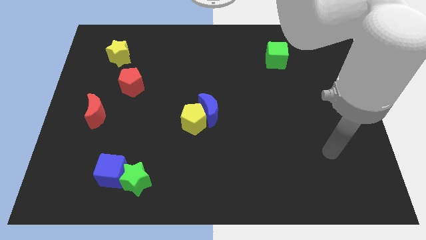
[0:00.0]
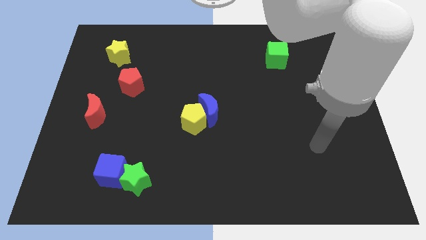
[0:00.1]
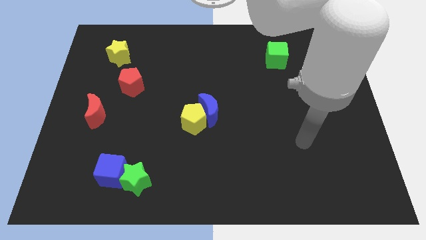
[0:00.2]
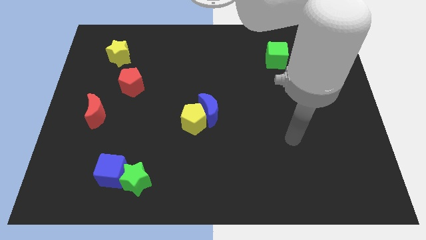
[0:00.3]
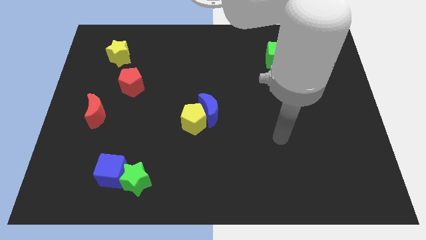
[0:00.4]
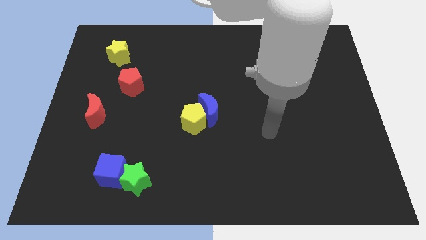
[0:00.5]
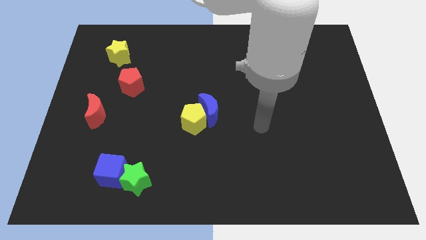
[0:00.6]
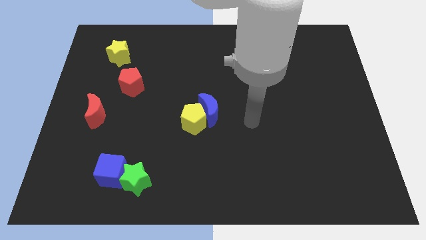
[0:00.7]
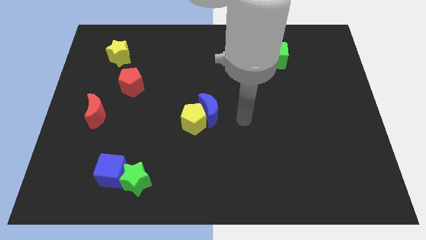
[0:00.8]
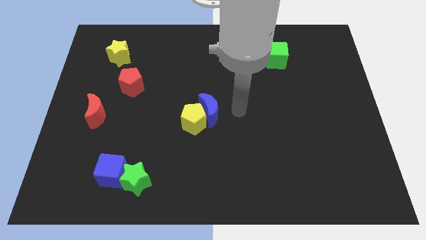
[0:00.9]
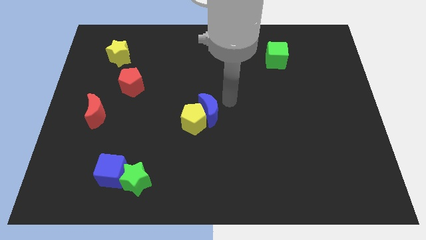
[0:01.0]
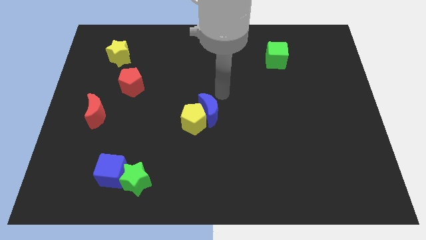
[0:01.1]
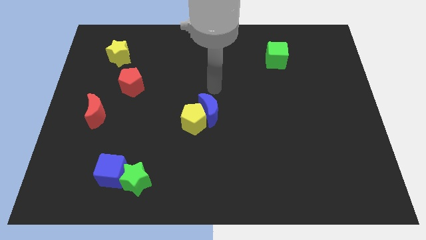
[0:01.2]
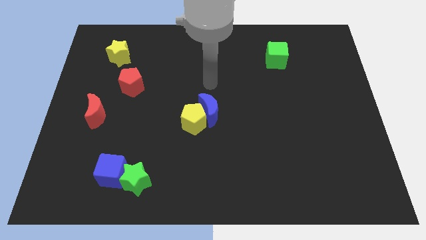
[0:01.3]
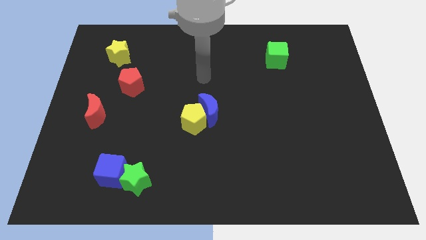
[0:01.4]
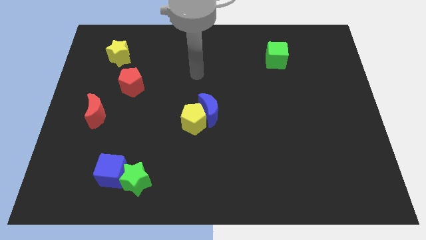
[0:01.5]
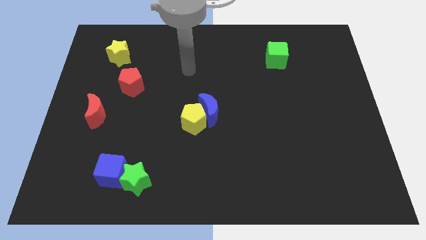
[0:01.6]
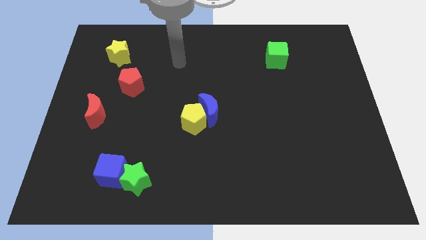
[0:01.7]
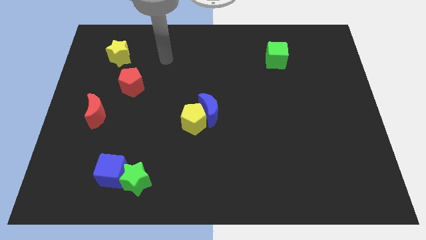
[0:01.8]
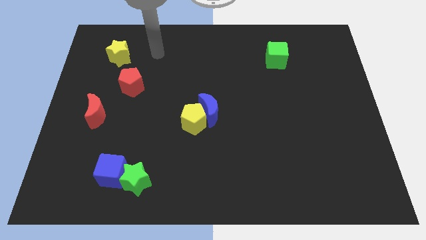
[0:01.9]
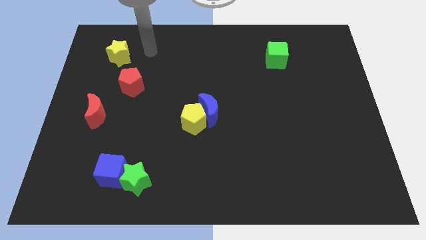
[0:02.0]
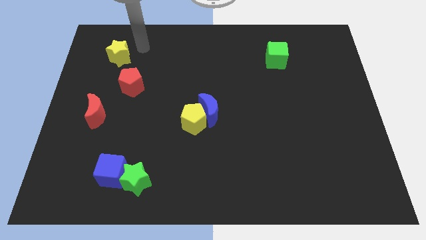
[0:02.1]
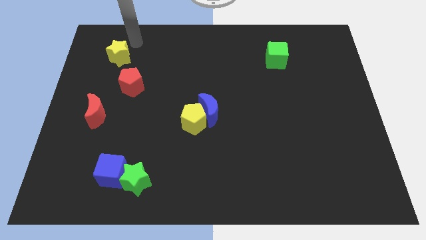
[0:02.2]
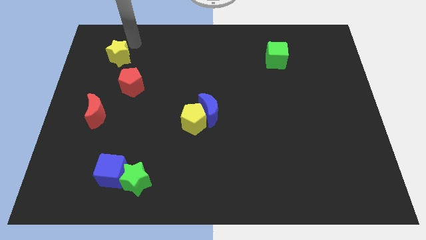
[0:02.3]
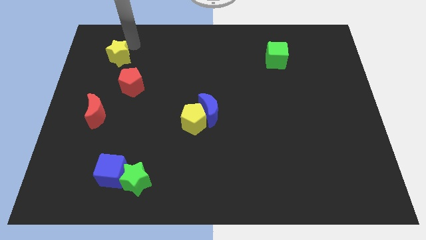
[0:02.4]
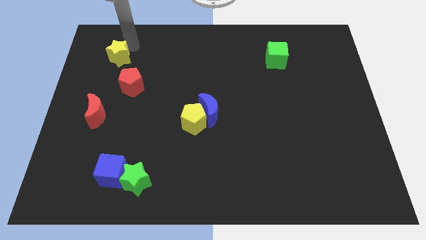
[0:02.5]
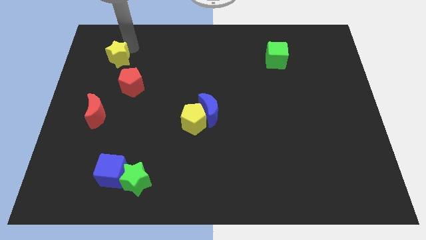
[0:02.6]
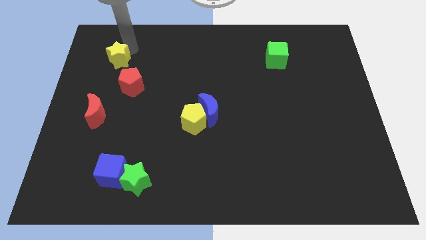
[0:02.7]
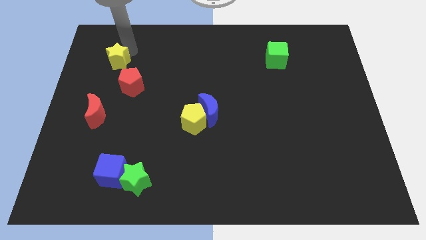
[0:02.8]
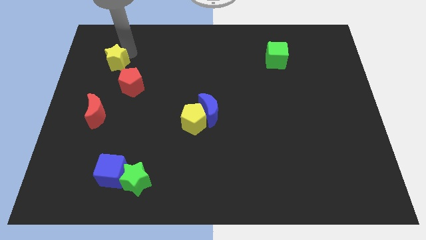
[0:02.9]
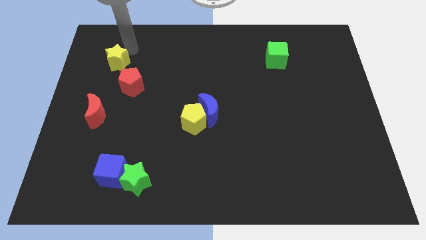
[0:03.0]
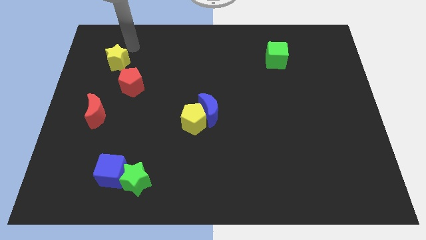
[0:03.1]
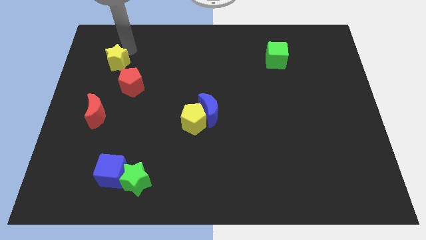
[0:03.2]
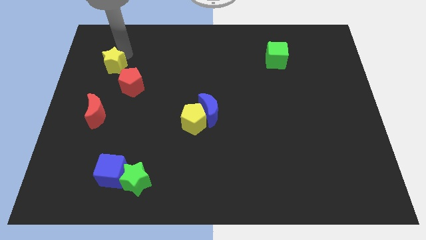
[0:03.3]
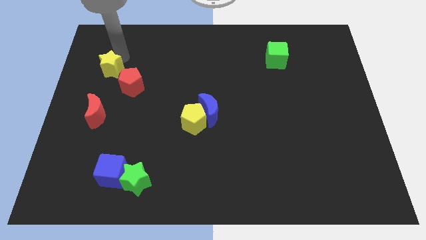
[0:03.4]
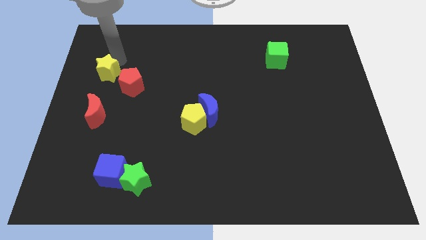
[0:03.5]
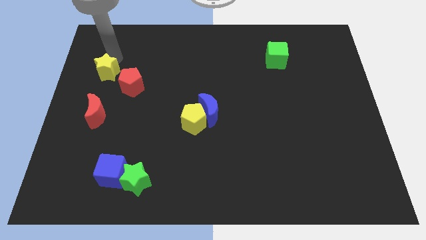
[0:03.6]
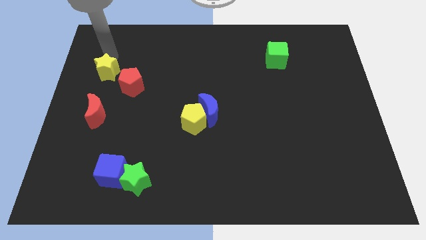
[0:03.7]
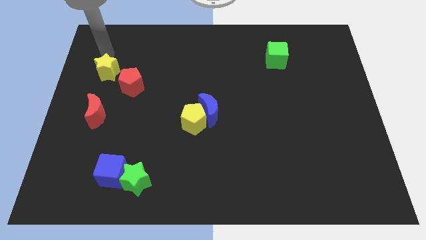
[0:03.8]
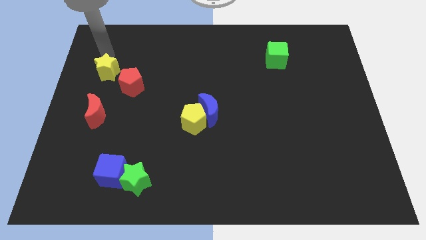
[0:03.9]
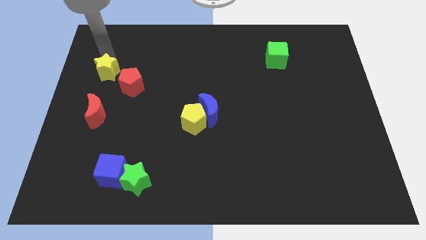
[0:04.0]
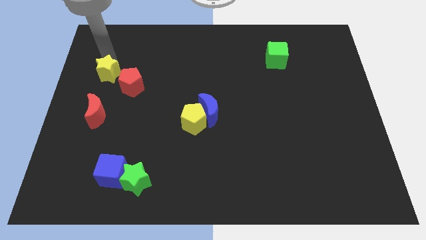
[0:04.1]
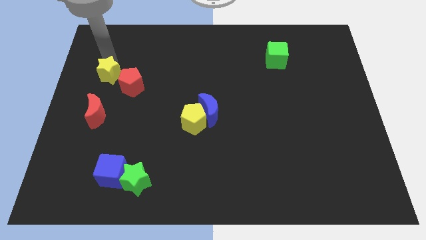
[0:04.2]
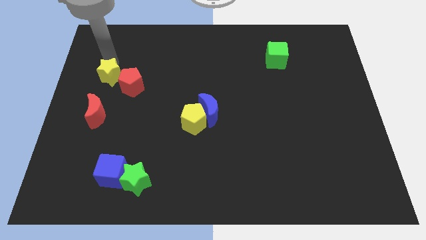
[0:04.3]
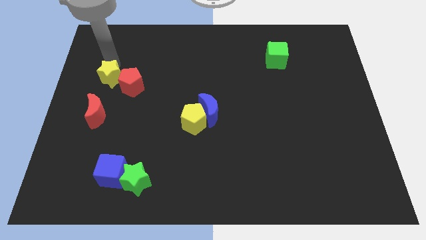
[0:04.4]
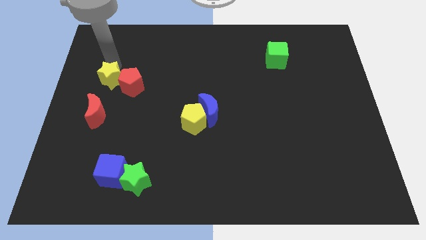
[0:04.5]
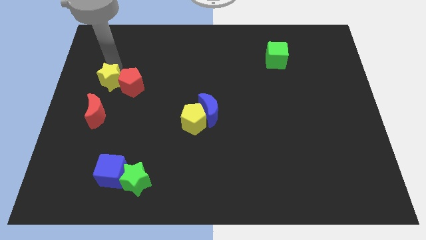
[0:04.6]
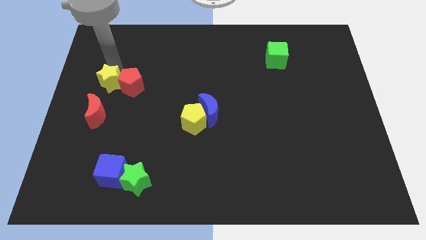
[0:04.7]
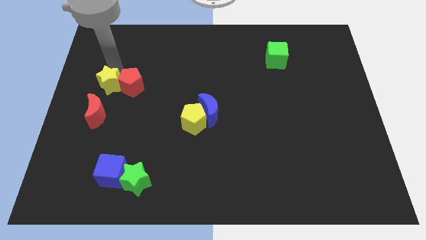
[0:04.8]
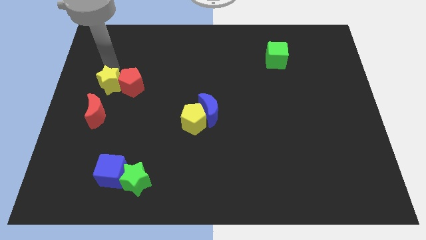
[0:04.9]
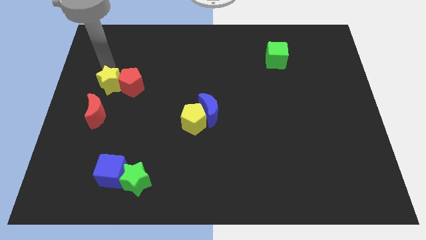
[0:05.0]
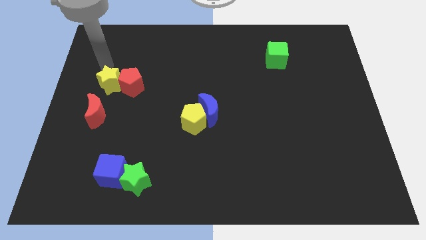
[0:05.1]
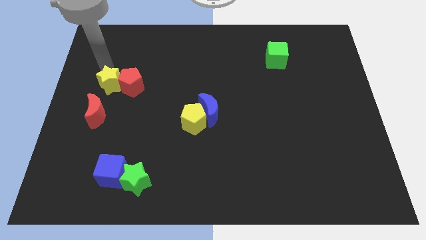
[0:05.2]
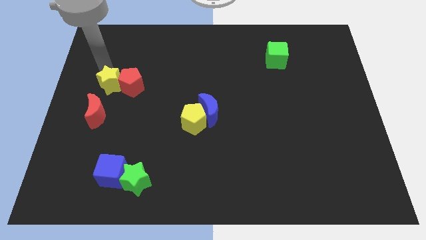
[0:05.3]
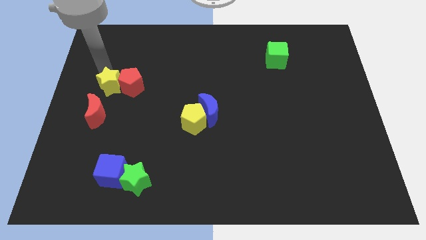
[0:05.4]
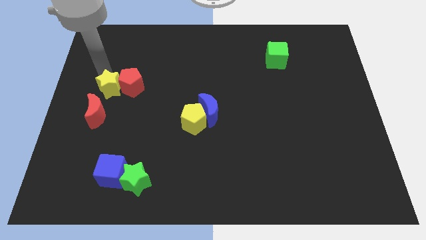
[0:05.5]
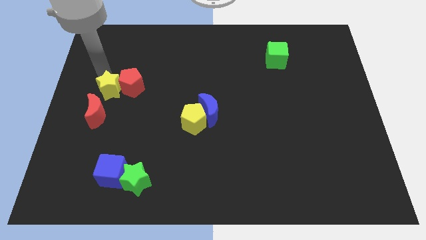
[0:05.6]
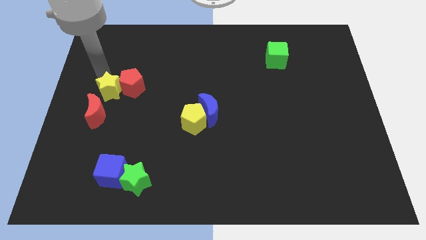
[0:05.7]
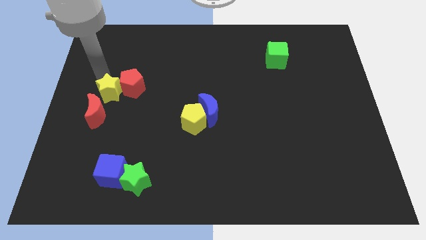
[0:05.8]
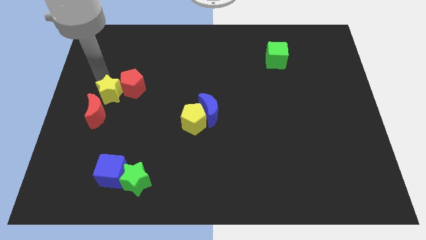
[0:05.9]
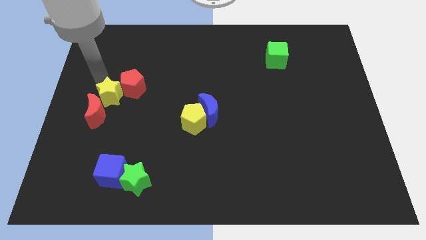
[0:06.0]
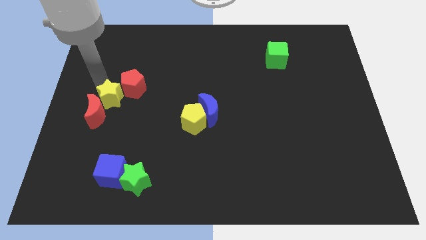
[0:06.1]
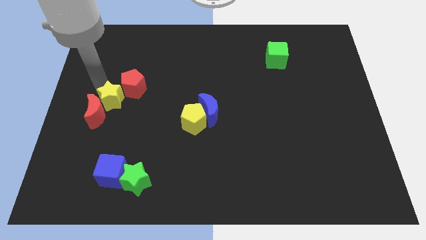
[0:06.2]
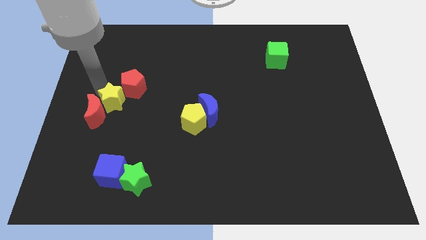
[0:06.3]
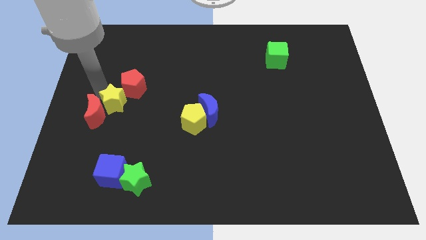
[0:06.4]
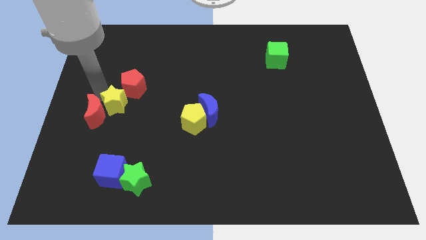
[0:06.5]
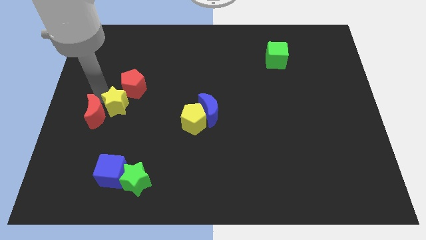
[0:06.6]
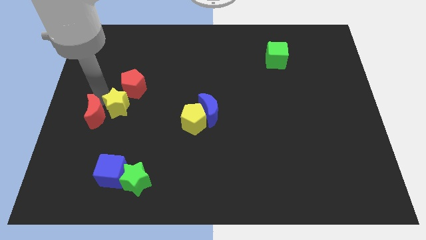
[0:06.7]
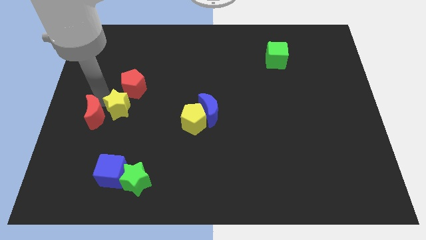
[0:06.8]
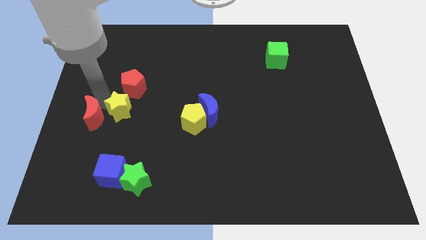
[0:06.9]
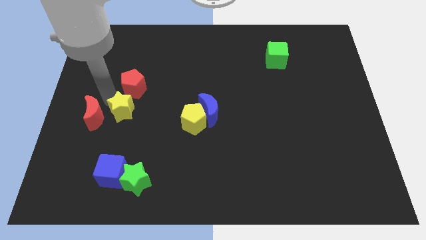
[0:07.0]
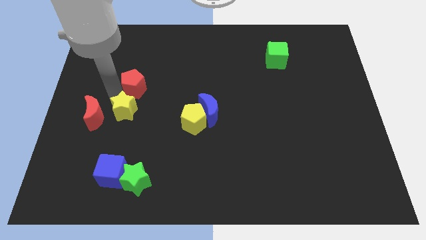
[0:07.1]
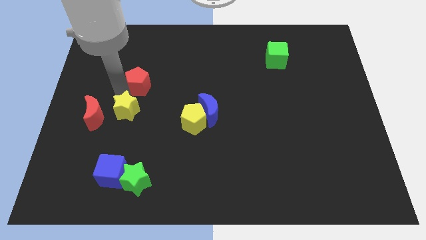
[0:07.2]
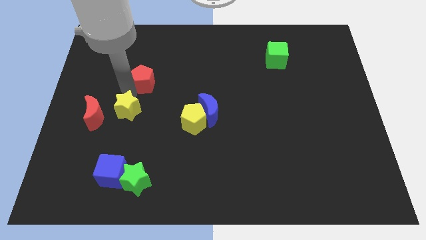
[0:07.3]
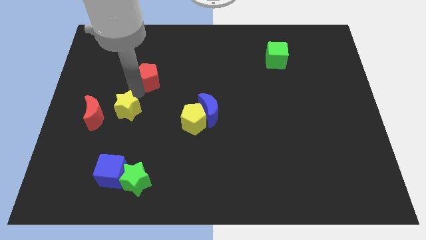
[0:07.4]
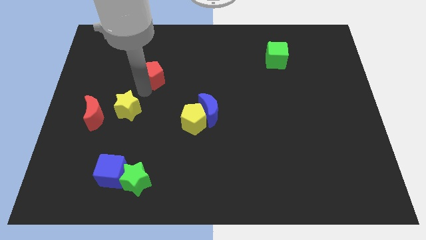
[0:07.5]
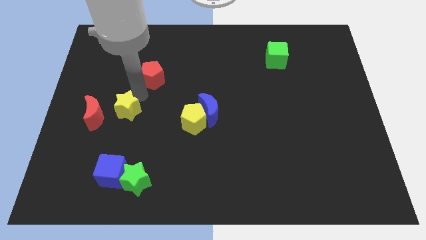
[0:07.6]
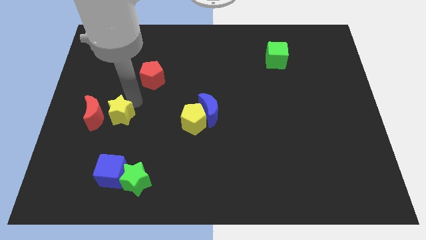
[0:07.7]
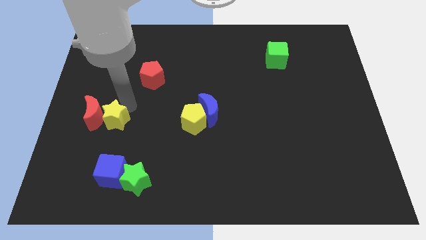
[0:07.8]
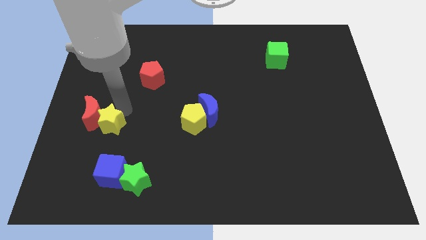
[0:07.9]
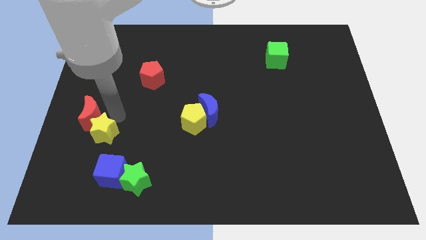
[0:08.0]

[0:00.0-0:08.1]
put the yellow star to the bottom of the red moon
